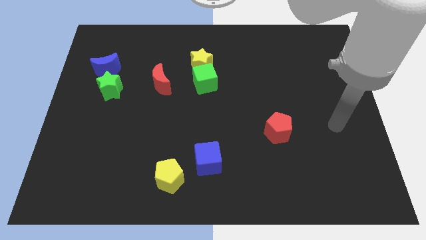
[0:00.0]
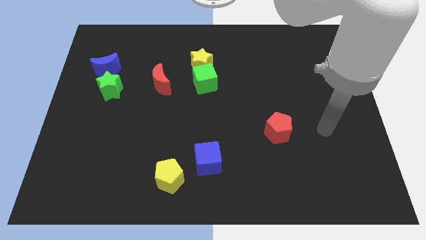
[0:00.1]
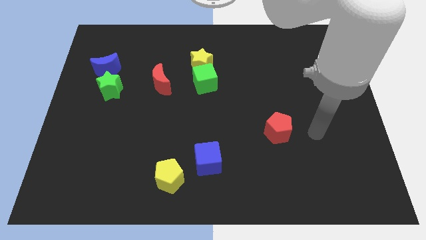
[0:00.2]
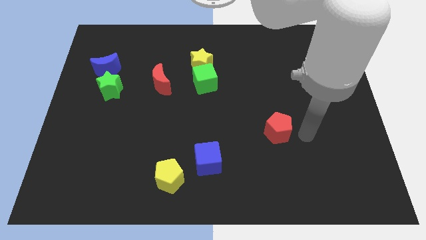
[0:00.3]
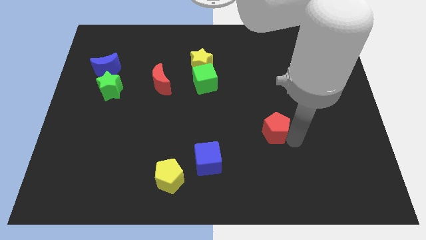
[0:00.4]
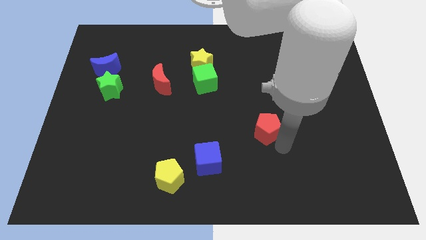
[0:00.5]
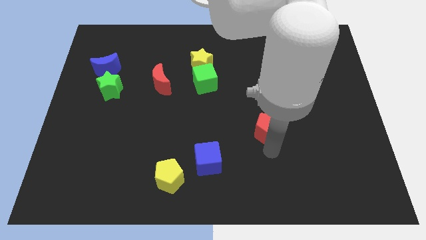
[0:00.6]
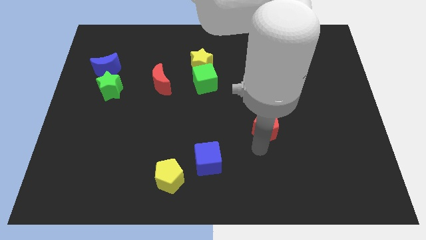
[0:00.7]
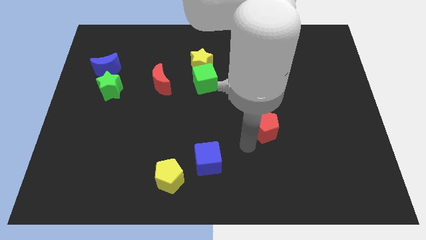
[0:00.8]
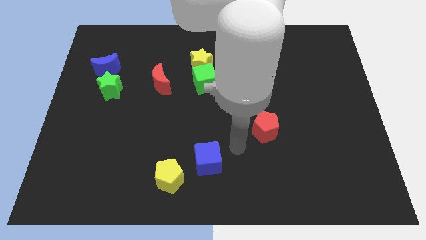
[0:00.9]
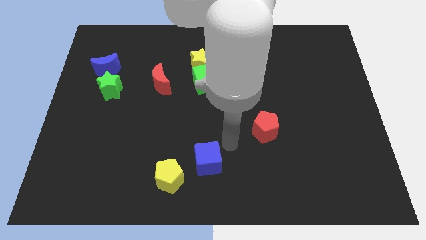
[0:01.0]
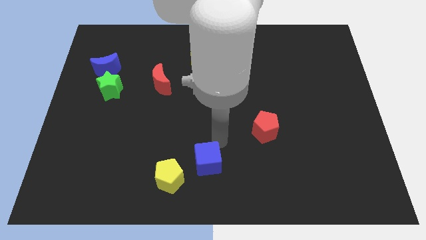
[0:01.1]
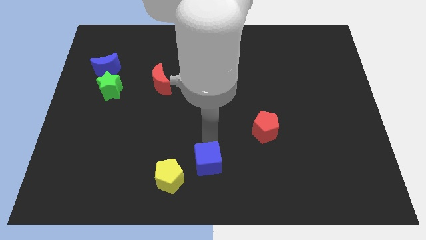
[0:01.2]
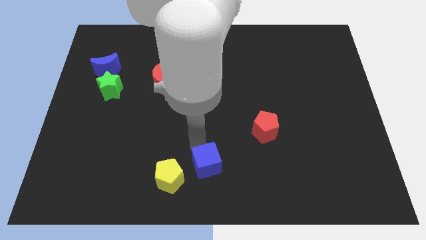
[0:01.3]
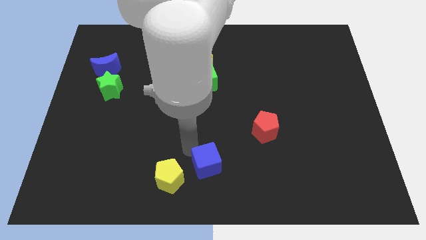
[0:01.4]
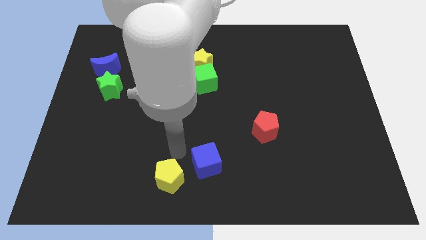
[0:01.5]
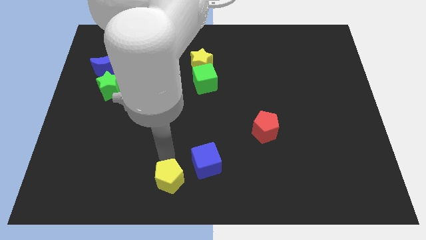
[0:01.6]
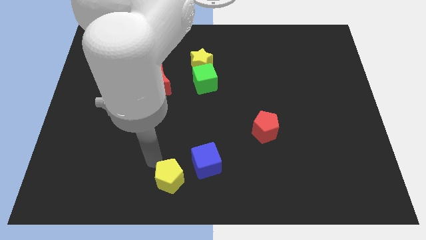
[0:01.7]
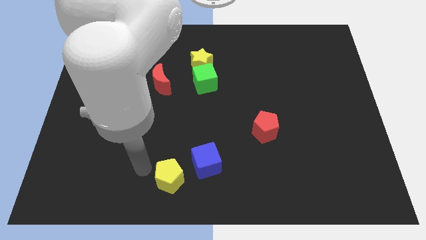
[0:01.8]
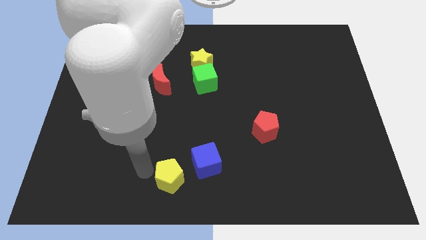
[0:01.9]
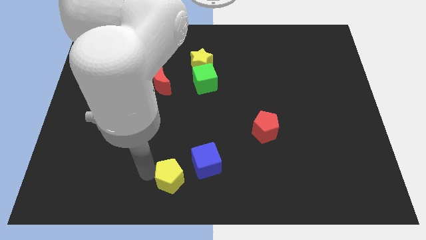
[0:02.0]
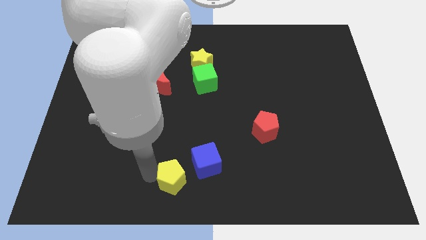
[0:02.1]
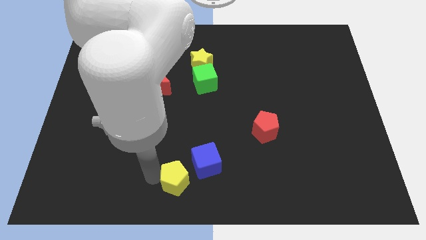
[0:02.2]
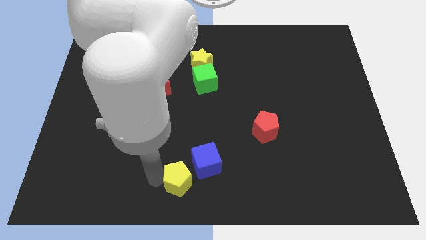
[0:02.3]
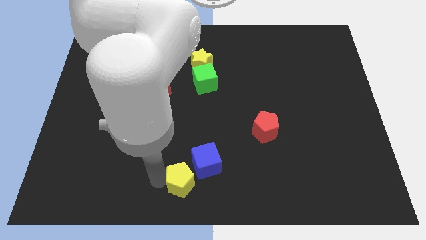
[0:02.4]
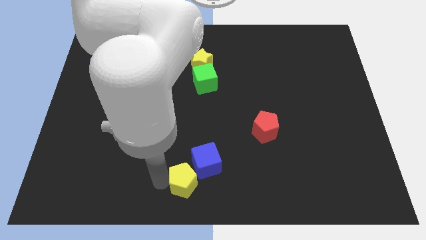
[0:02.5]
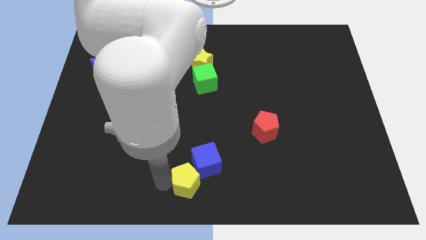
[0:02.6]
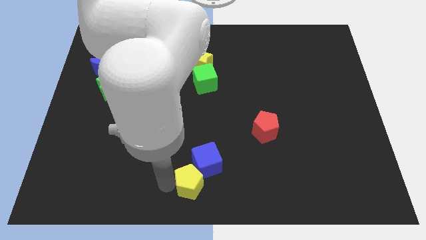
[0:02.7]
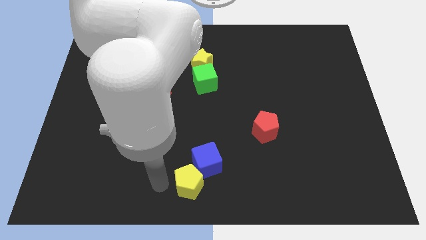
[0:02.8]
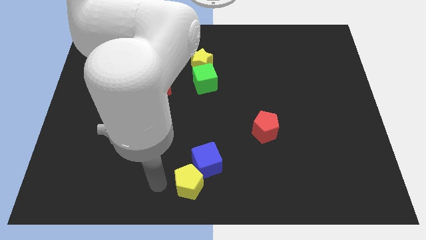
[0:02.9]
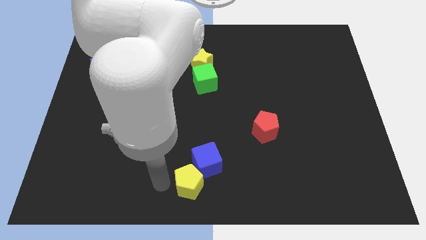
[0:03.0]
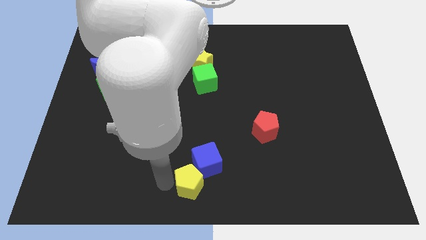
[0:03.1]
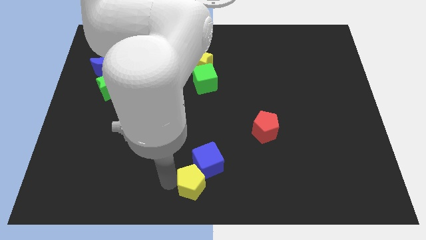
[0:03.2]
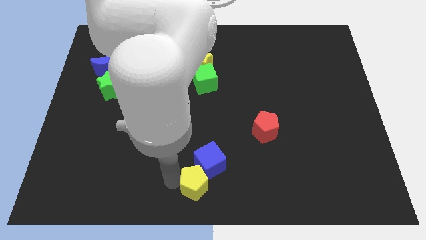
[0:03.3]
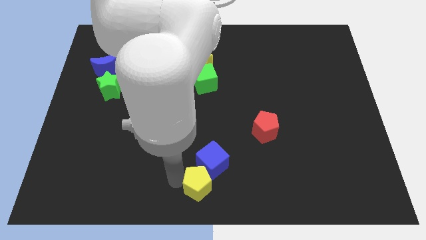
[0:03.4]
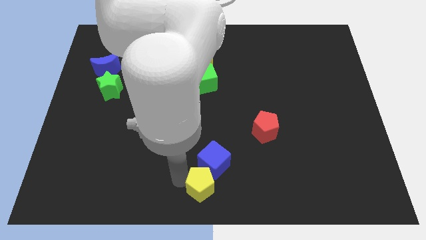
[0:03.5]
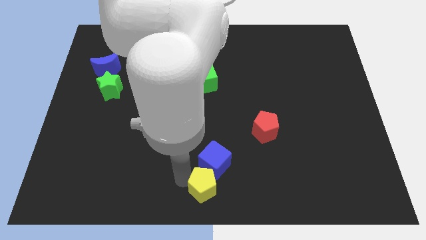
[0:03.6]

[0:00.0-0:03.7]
slightly slide the yellow pentagon right

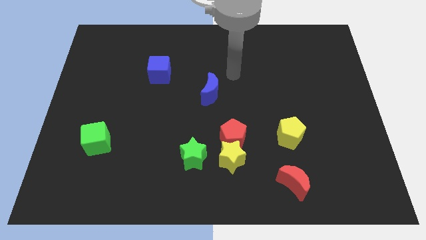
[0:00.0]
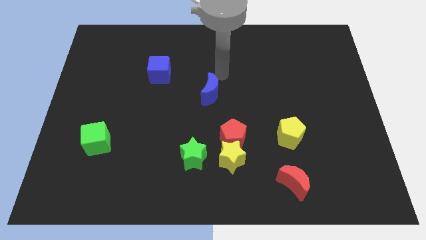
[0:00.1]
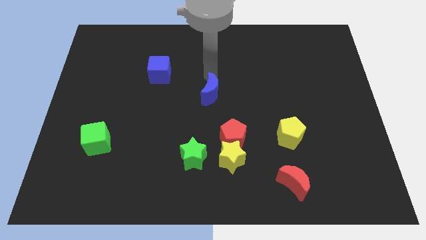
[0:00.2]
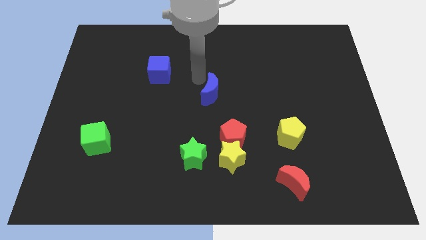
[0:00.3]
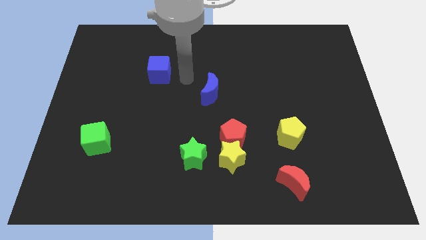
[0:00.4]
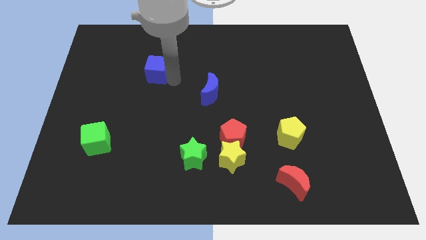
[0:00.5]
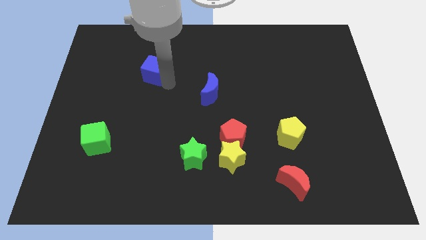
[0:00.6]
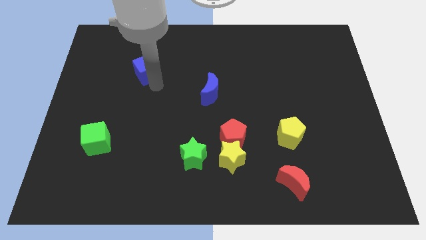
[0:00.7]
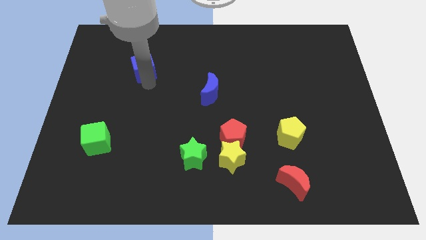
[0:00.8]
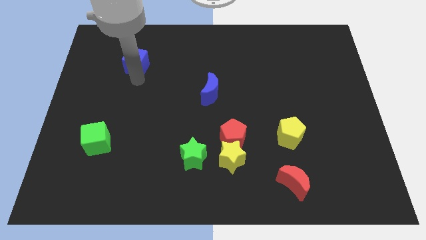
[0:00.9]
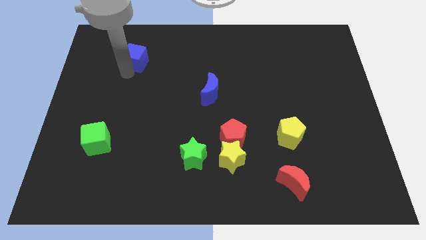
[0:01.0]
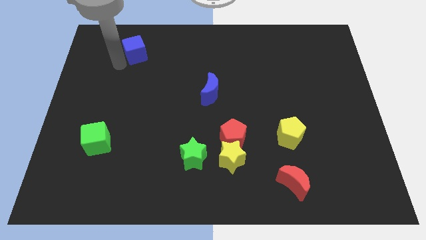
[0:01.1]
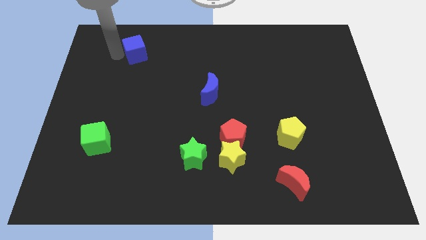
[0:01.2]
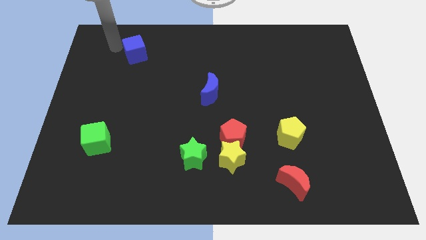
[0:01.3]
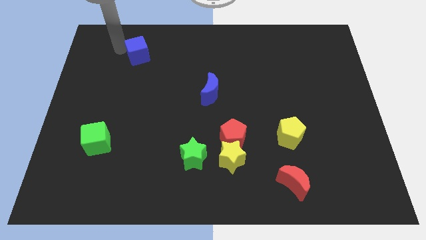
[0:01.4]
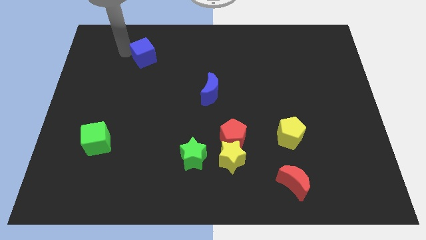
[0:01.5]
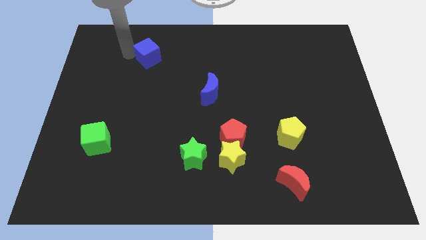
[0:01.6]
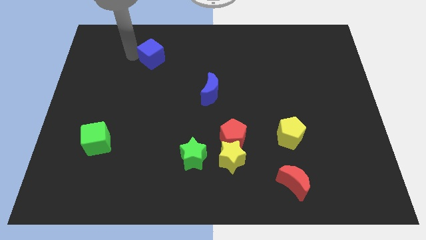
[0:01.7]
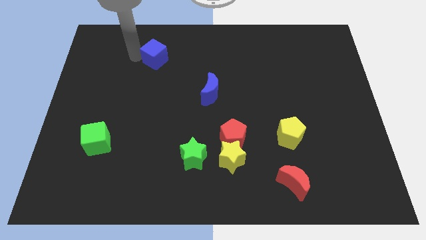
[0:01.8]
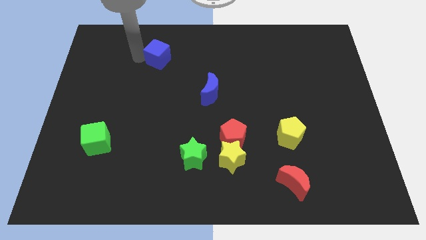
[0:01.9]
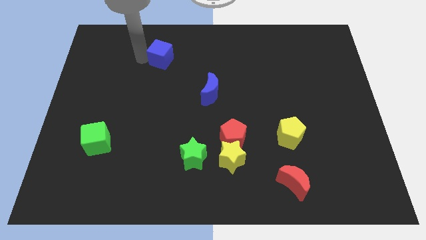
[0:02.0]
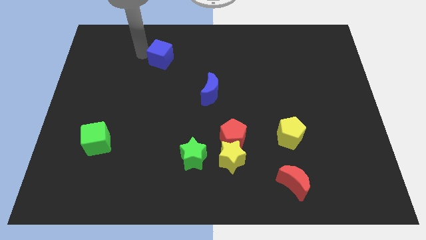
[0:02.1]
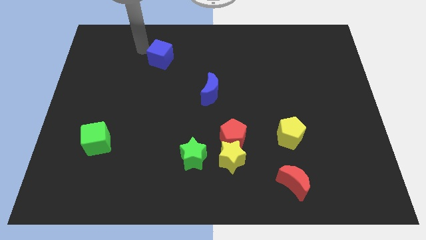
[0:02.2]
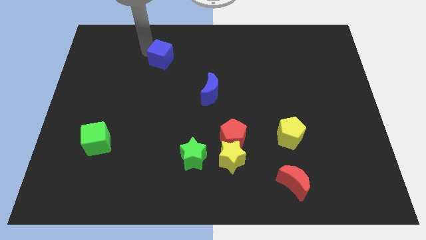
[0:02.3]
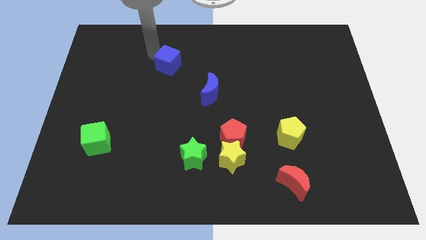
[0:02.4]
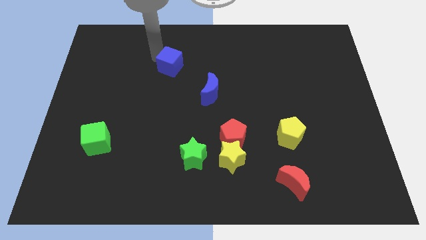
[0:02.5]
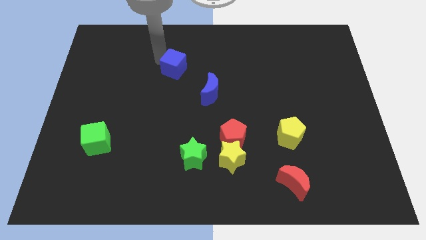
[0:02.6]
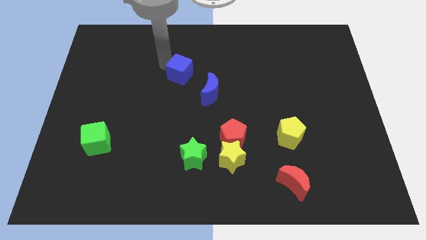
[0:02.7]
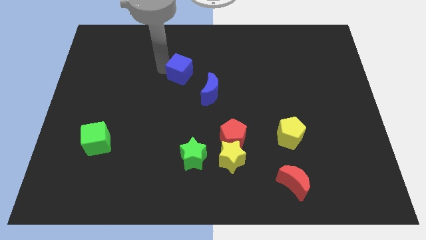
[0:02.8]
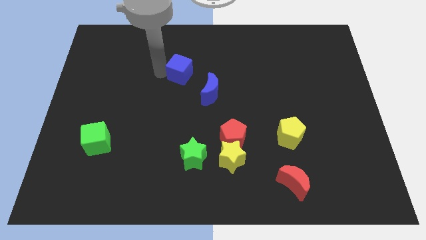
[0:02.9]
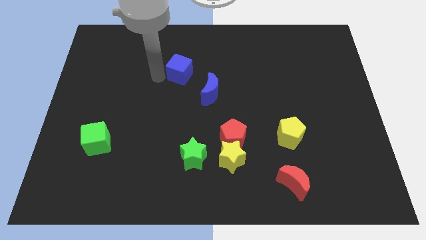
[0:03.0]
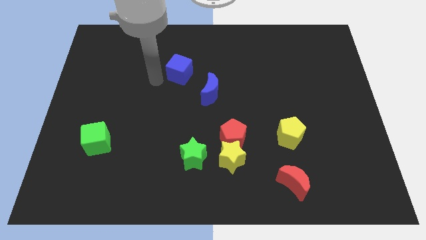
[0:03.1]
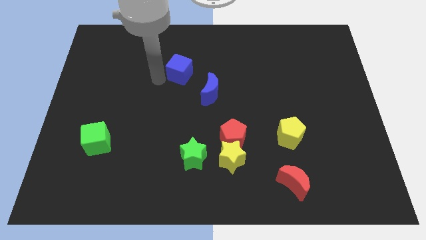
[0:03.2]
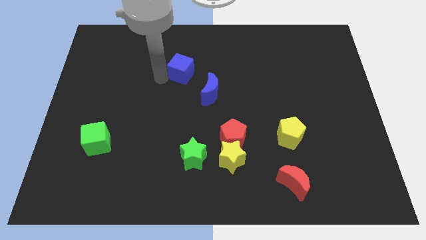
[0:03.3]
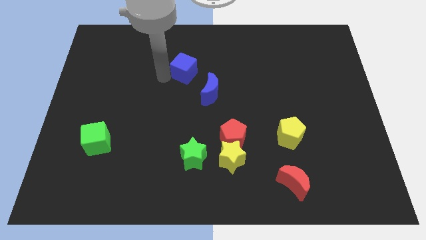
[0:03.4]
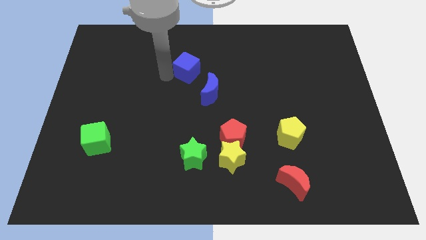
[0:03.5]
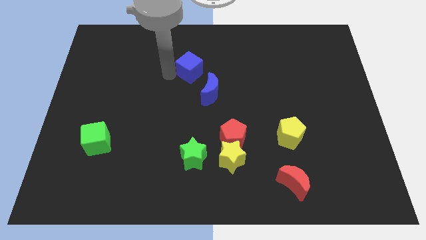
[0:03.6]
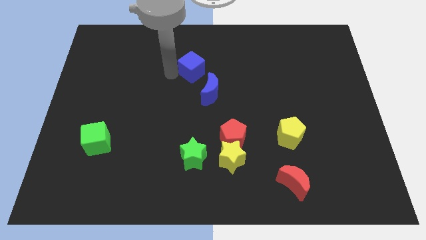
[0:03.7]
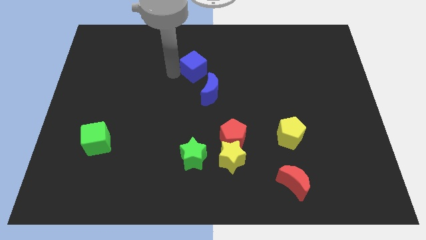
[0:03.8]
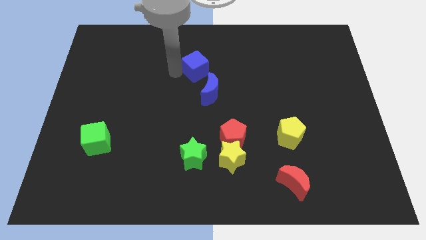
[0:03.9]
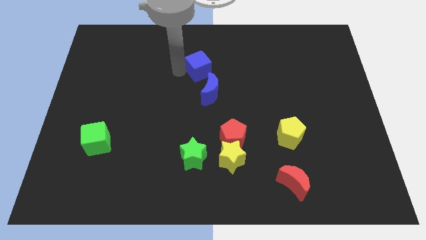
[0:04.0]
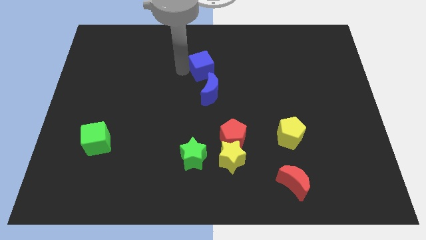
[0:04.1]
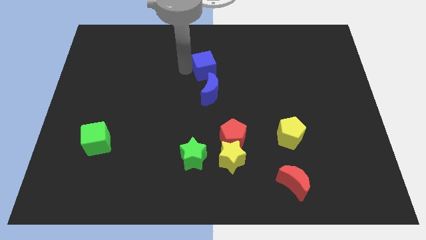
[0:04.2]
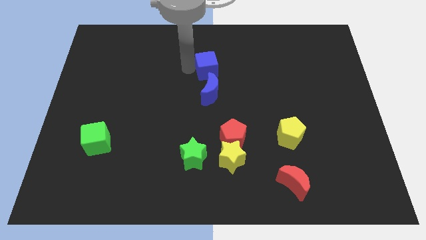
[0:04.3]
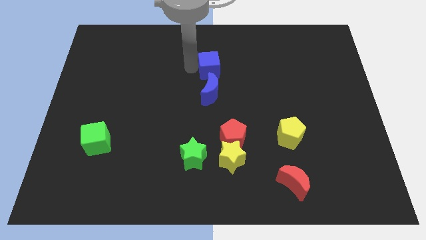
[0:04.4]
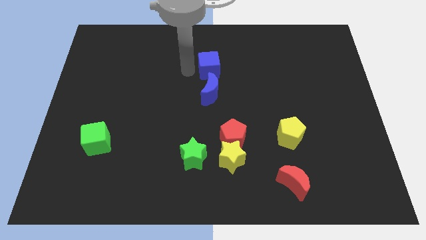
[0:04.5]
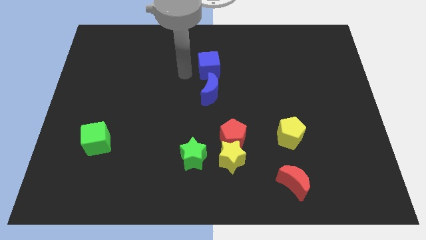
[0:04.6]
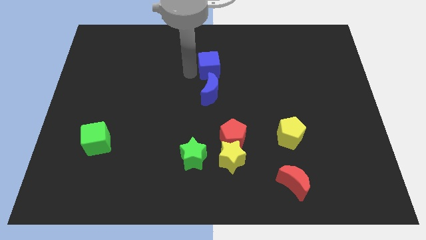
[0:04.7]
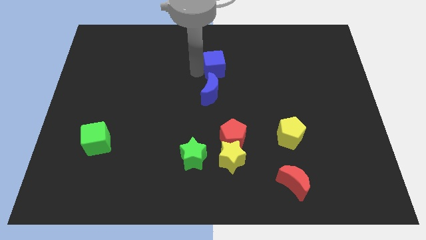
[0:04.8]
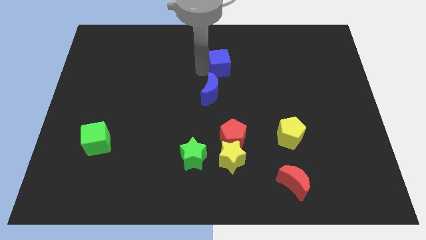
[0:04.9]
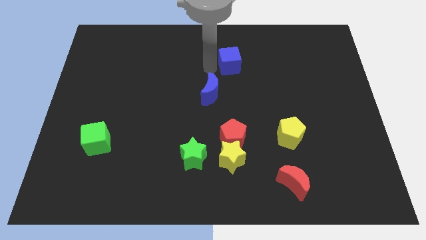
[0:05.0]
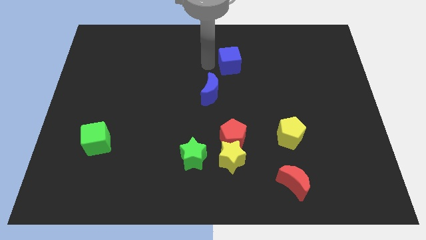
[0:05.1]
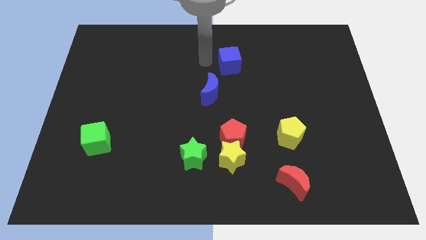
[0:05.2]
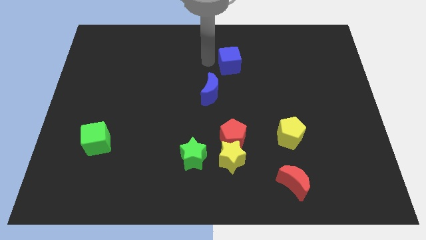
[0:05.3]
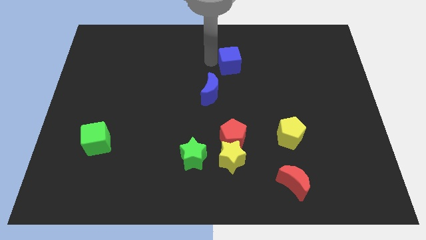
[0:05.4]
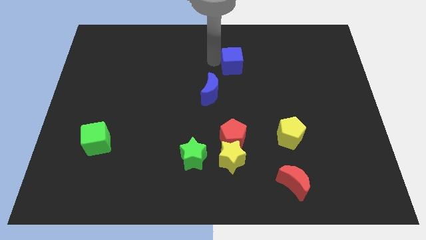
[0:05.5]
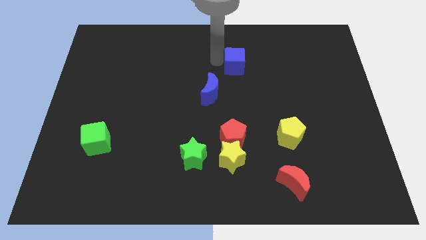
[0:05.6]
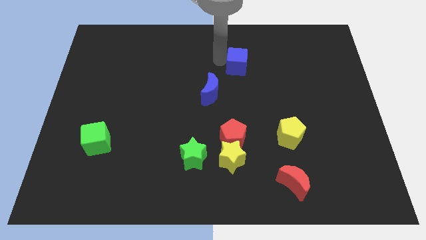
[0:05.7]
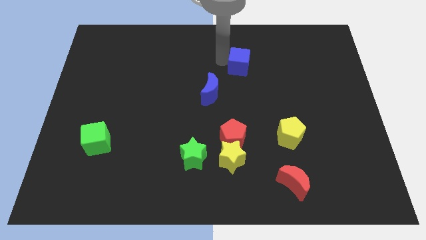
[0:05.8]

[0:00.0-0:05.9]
push the blue cube to the right
